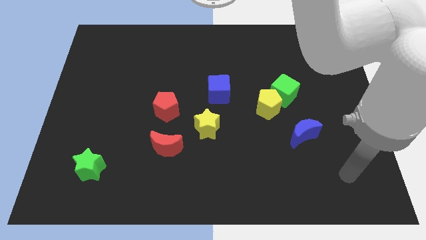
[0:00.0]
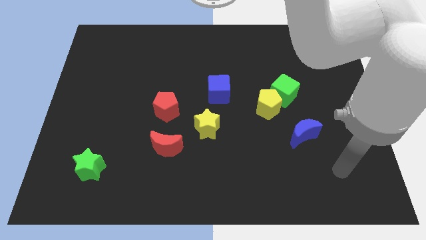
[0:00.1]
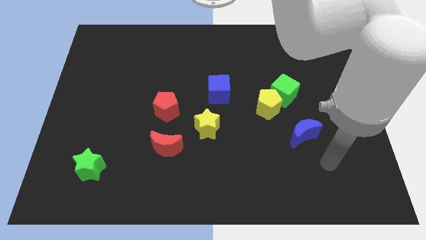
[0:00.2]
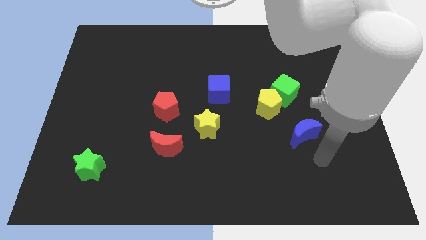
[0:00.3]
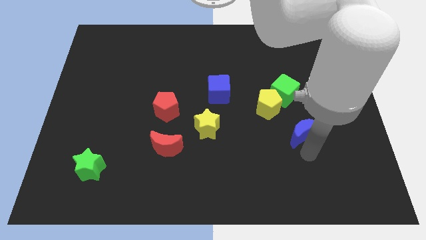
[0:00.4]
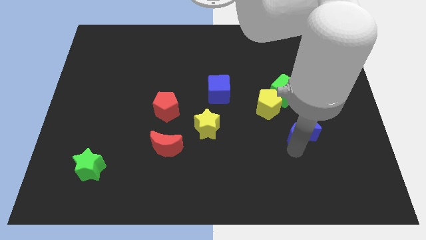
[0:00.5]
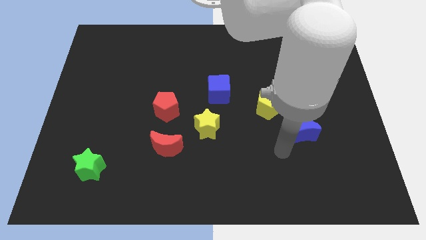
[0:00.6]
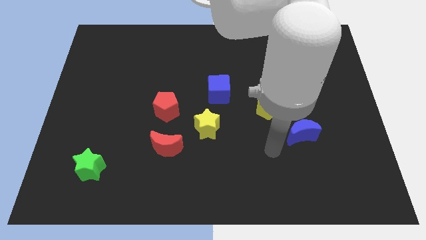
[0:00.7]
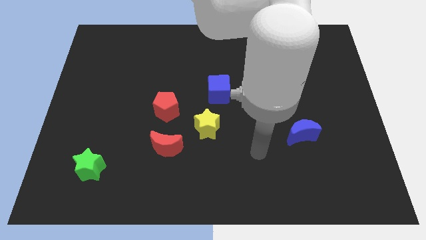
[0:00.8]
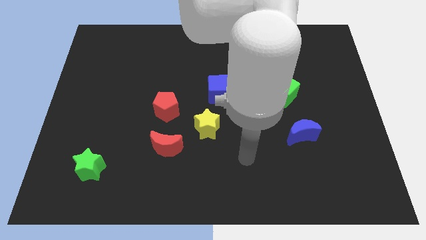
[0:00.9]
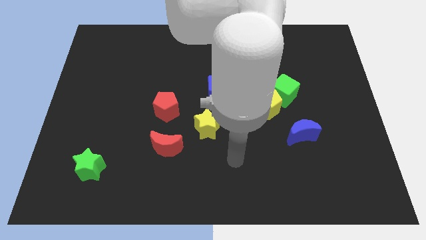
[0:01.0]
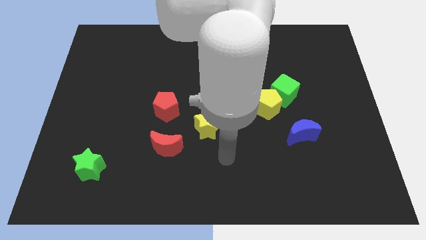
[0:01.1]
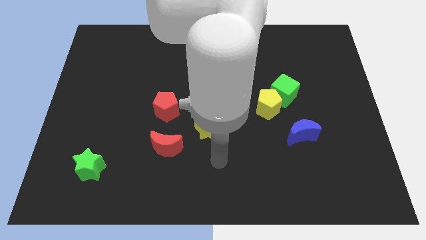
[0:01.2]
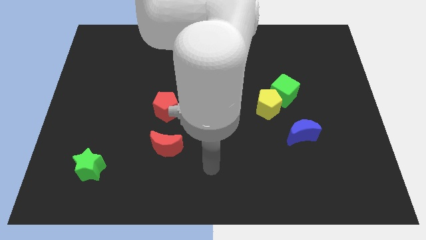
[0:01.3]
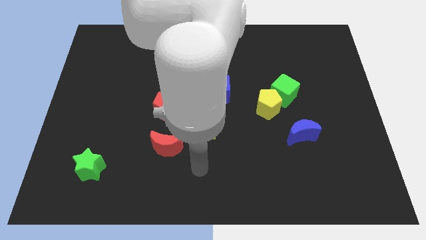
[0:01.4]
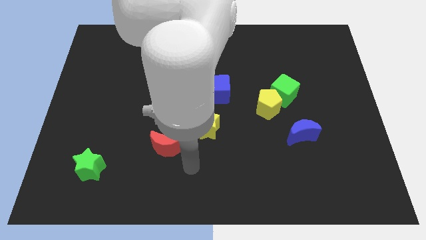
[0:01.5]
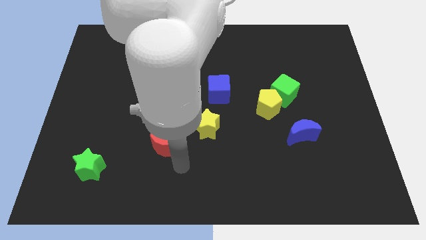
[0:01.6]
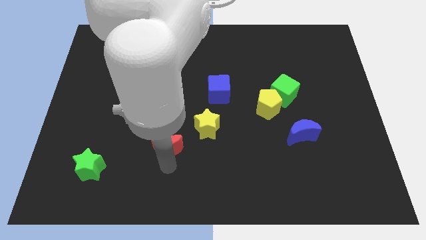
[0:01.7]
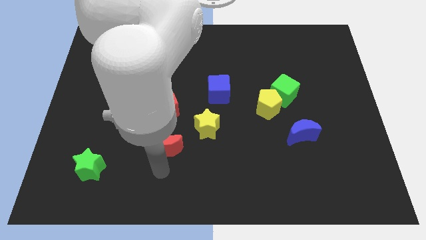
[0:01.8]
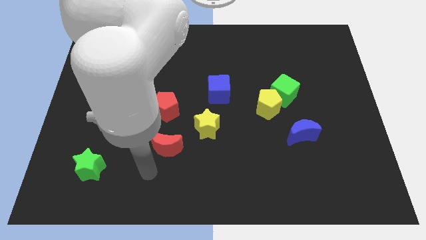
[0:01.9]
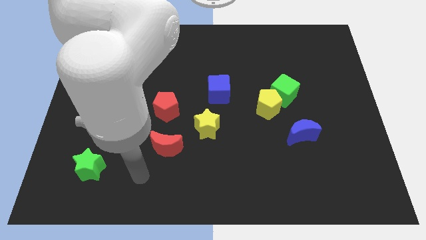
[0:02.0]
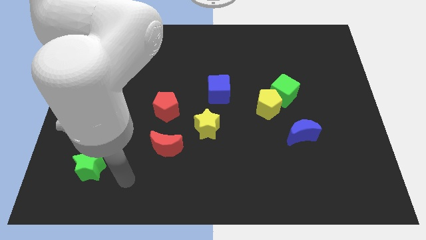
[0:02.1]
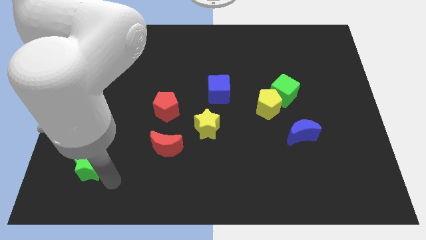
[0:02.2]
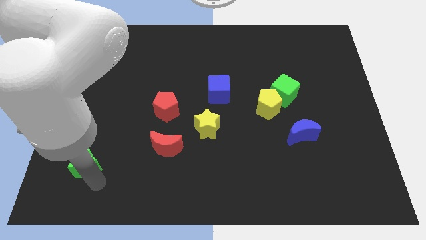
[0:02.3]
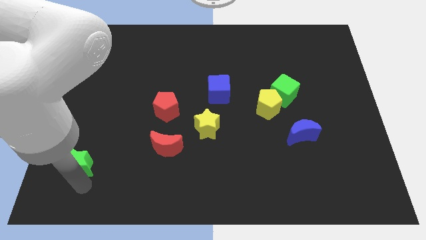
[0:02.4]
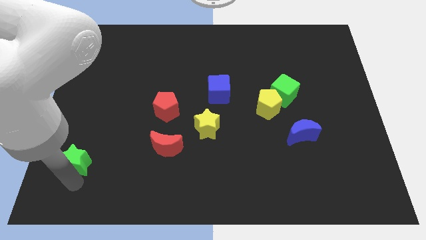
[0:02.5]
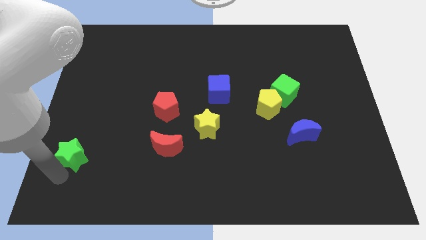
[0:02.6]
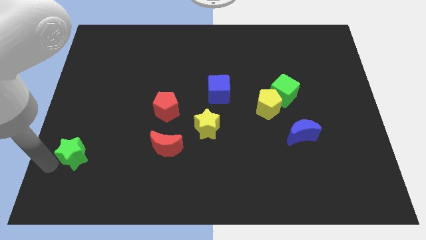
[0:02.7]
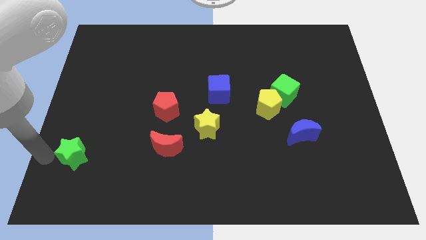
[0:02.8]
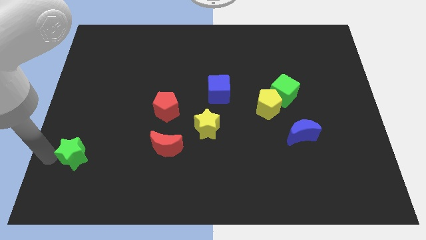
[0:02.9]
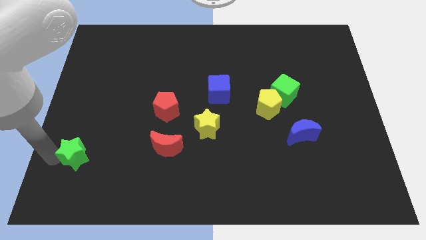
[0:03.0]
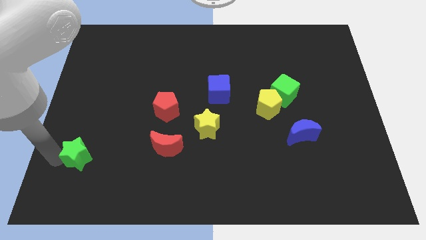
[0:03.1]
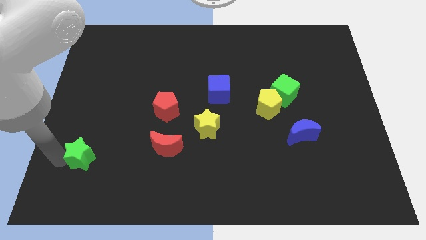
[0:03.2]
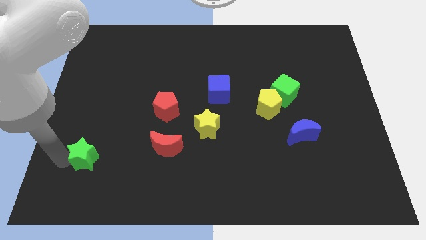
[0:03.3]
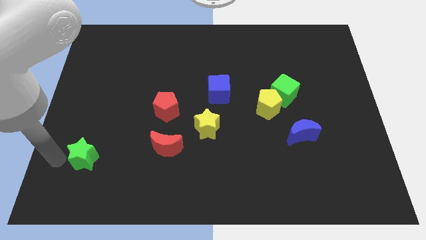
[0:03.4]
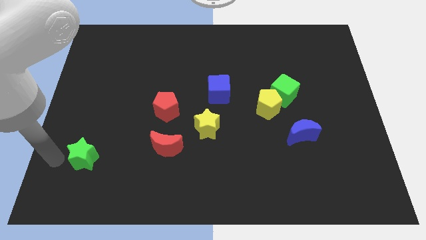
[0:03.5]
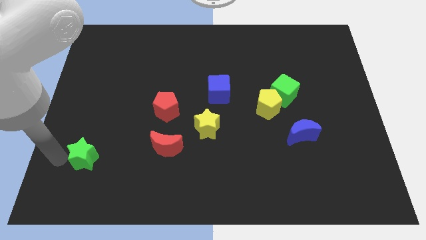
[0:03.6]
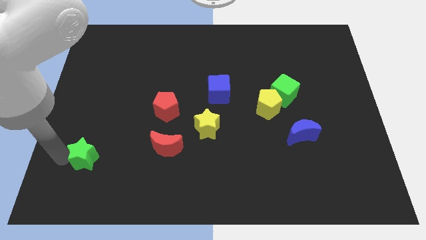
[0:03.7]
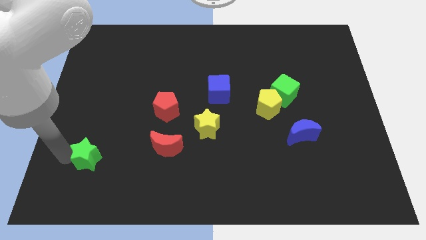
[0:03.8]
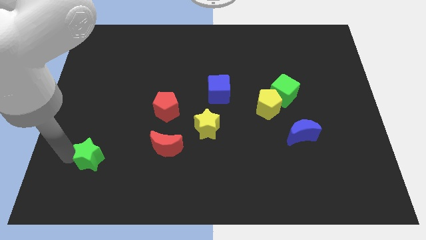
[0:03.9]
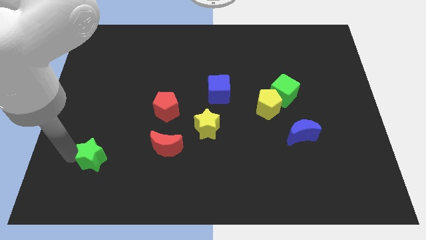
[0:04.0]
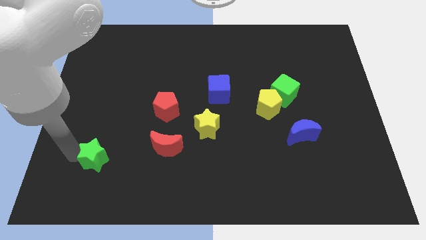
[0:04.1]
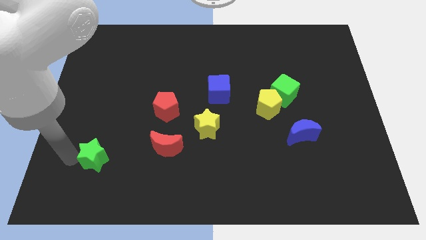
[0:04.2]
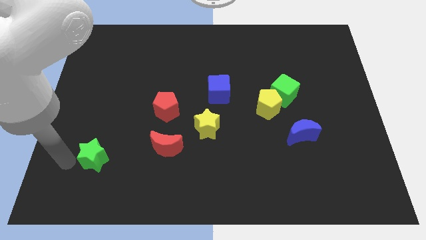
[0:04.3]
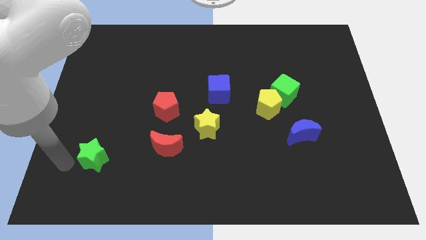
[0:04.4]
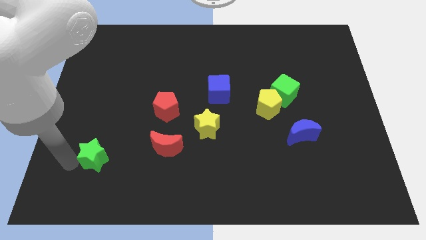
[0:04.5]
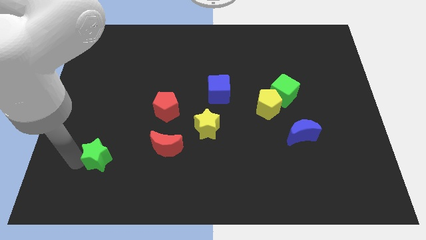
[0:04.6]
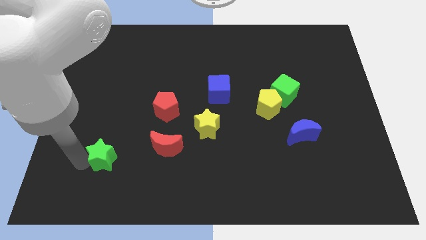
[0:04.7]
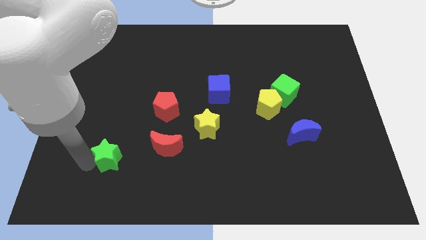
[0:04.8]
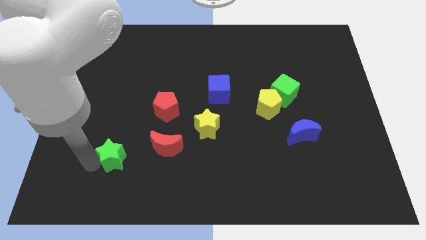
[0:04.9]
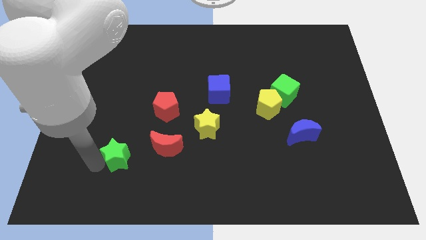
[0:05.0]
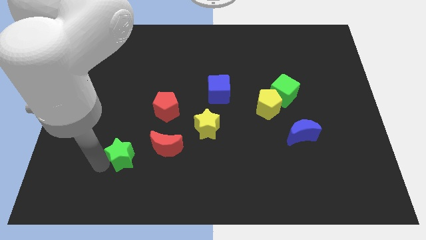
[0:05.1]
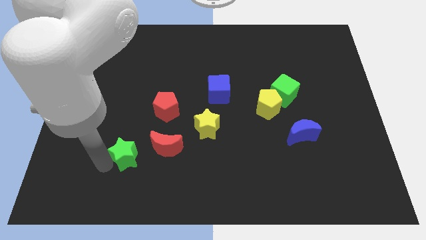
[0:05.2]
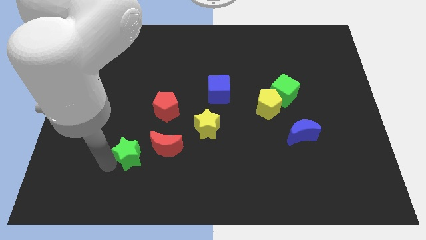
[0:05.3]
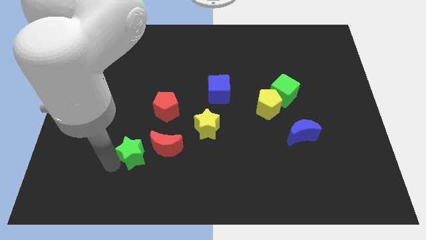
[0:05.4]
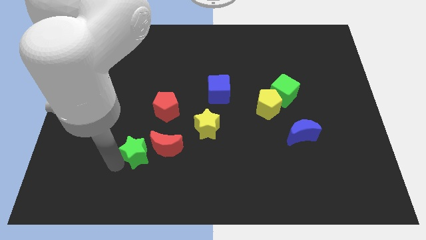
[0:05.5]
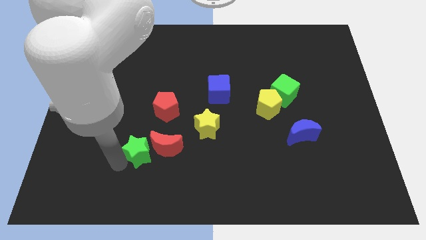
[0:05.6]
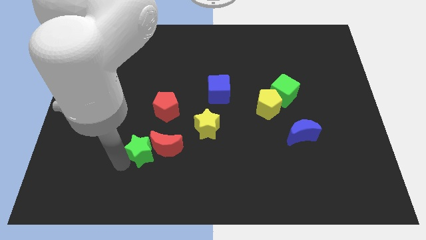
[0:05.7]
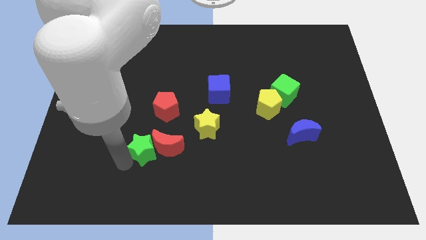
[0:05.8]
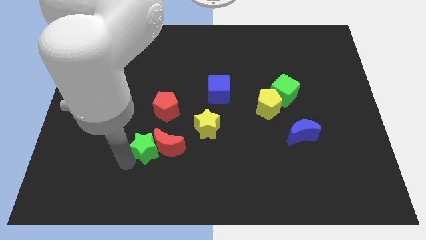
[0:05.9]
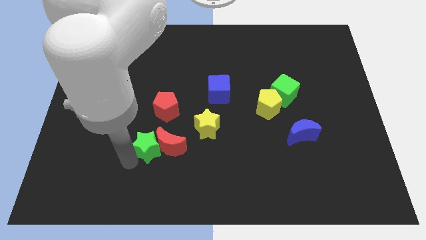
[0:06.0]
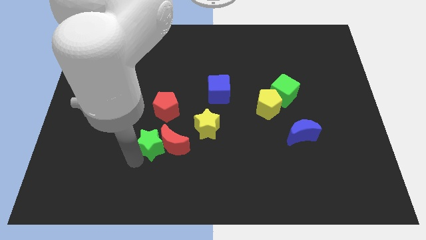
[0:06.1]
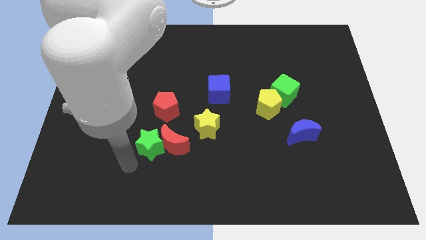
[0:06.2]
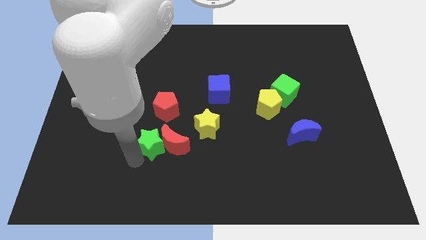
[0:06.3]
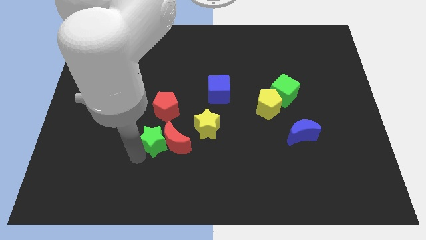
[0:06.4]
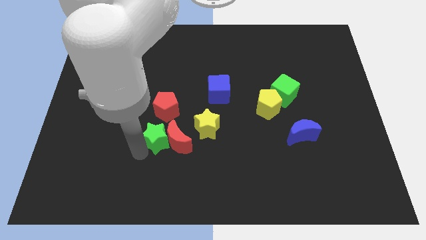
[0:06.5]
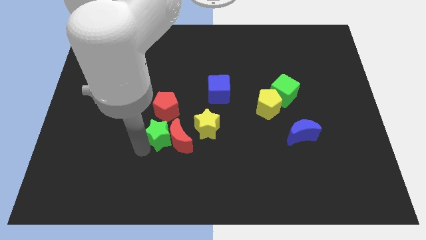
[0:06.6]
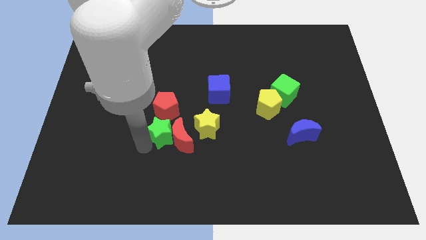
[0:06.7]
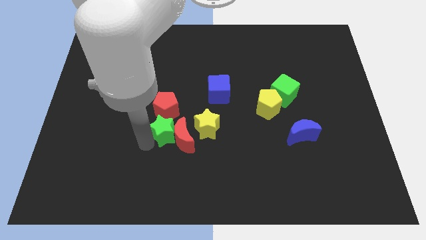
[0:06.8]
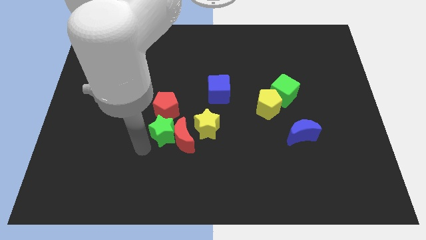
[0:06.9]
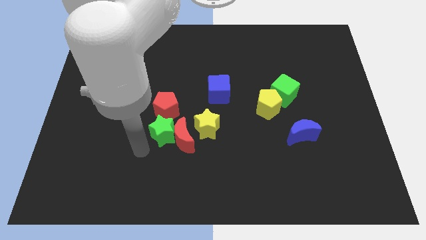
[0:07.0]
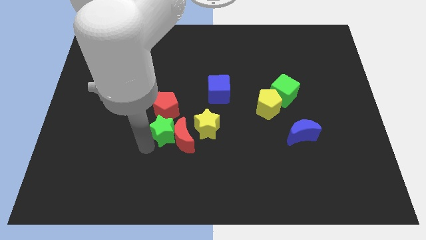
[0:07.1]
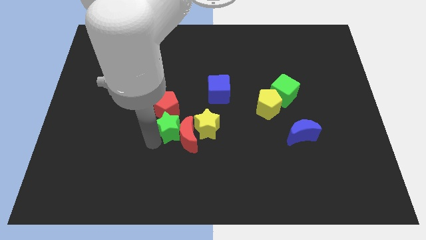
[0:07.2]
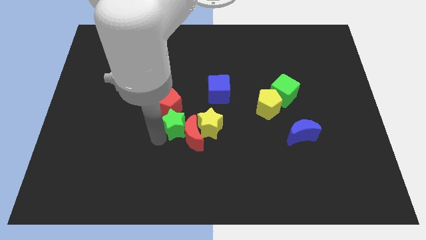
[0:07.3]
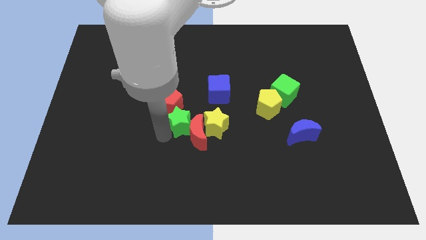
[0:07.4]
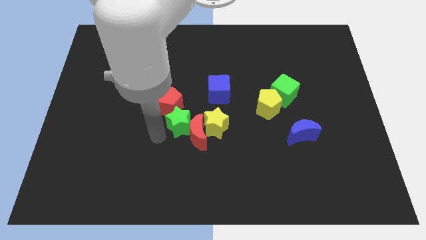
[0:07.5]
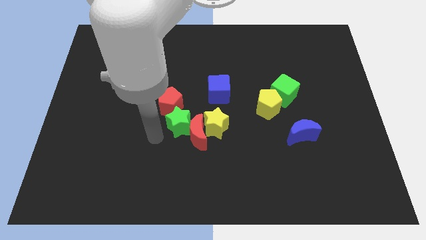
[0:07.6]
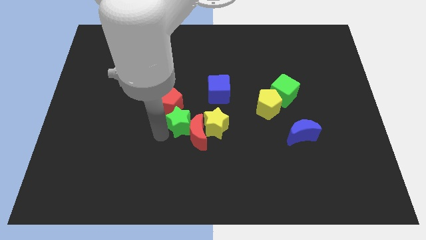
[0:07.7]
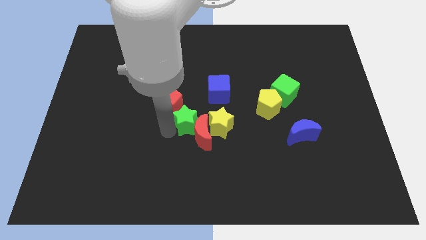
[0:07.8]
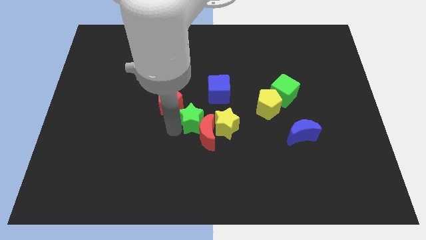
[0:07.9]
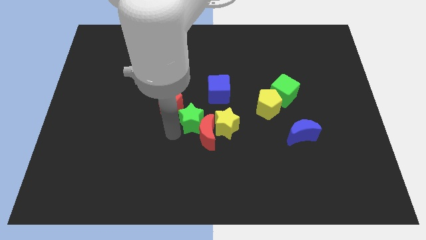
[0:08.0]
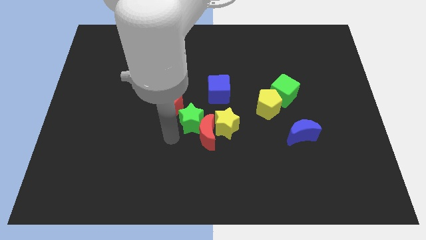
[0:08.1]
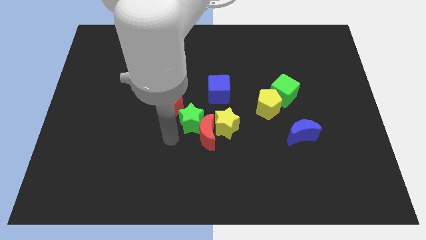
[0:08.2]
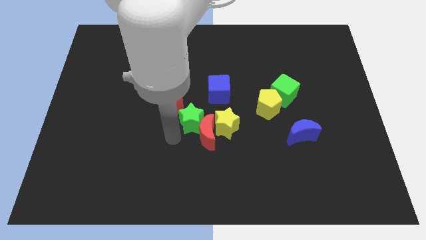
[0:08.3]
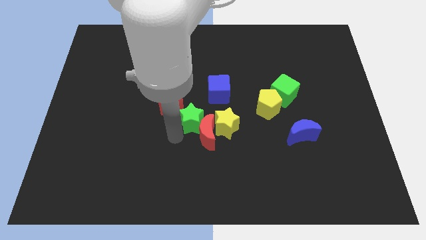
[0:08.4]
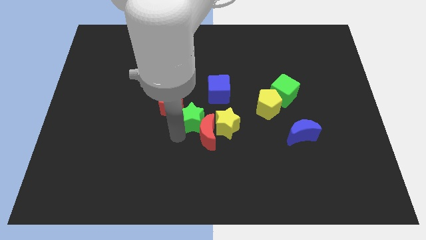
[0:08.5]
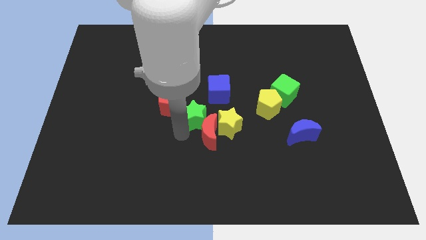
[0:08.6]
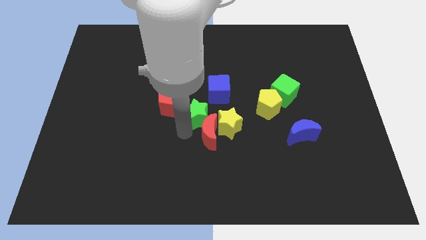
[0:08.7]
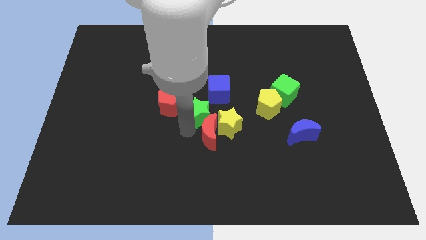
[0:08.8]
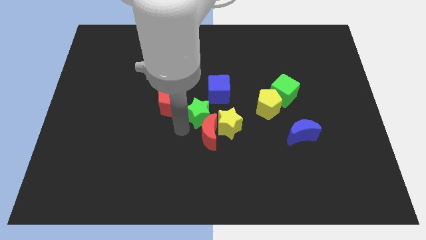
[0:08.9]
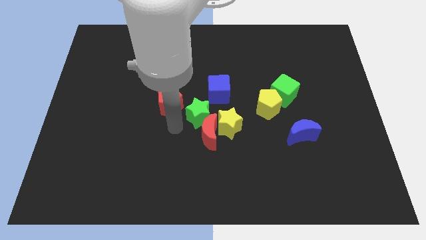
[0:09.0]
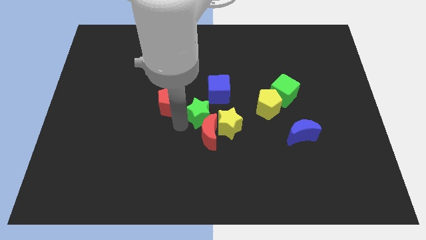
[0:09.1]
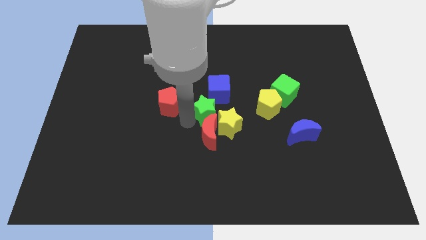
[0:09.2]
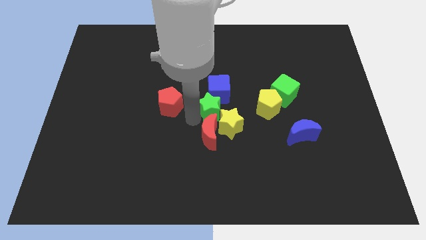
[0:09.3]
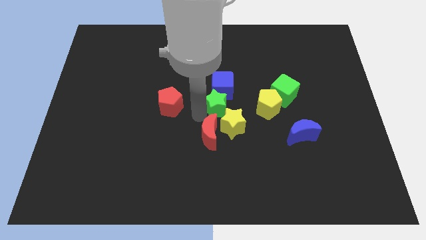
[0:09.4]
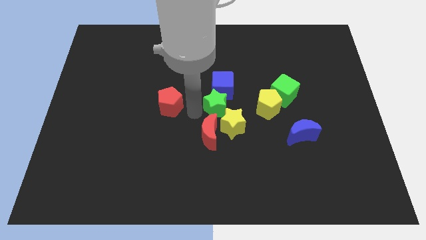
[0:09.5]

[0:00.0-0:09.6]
push the green star to the bottom right side of the blue cube
